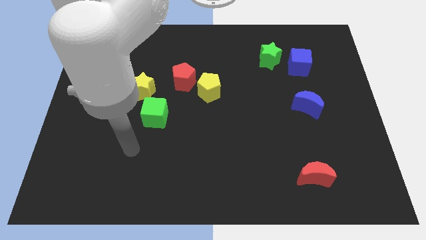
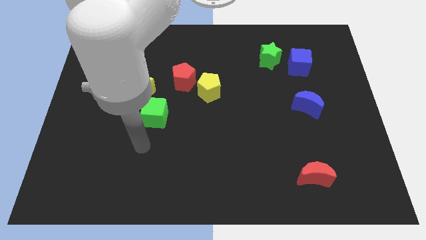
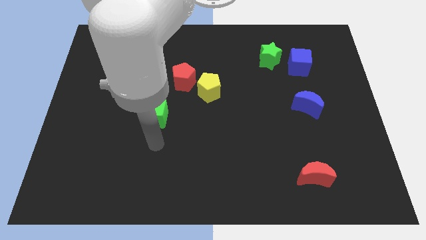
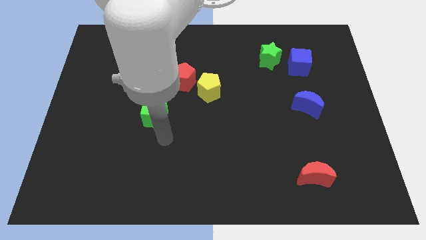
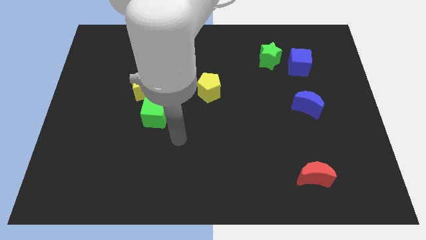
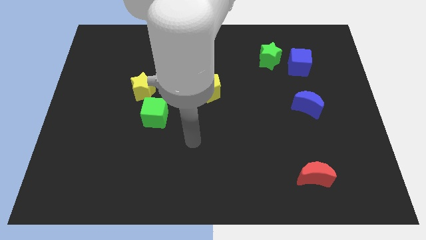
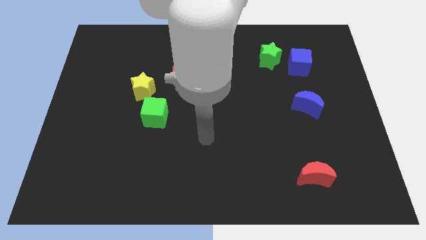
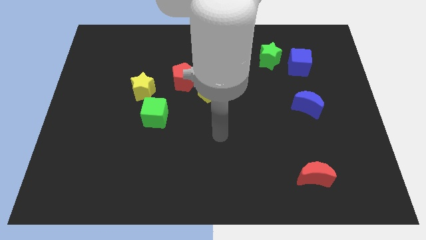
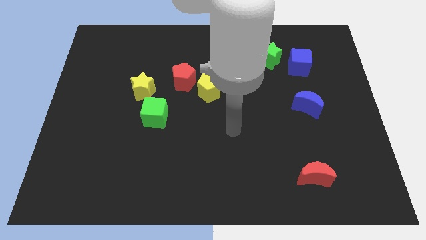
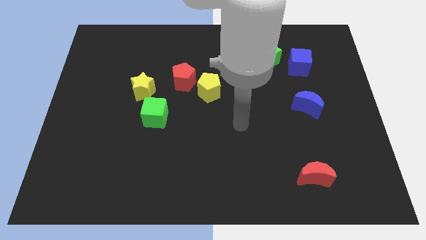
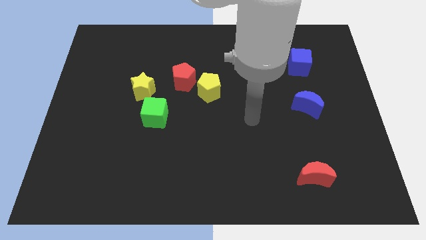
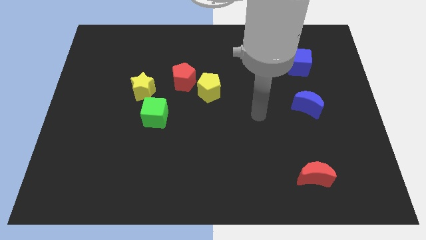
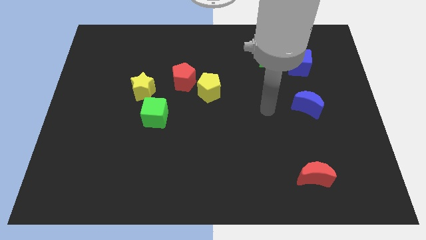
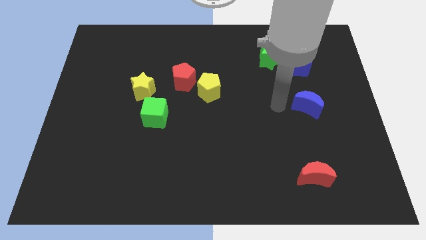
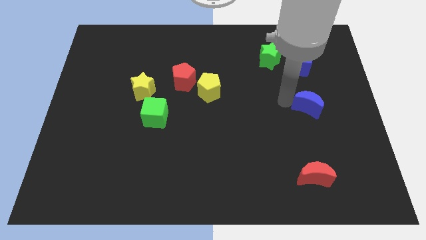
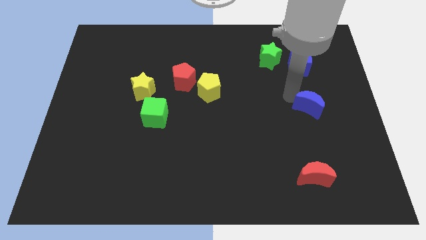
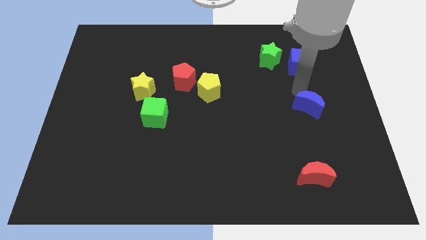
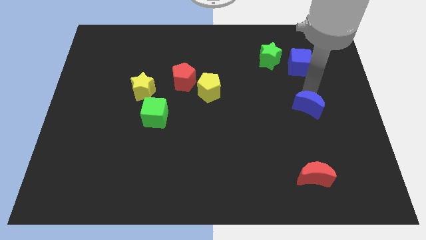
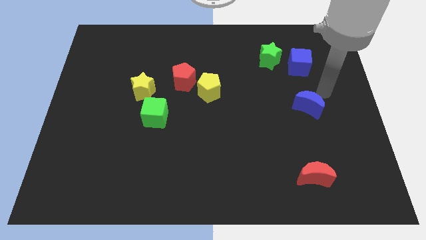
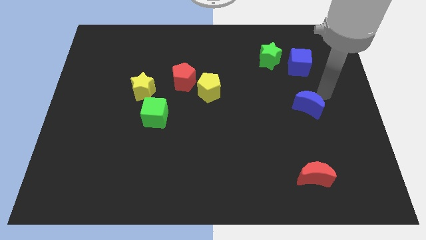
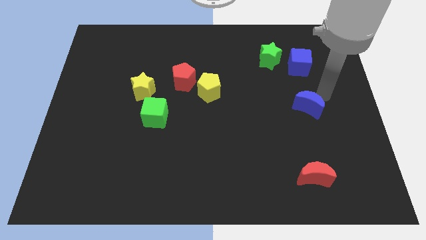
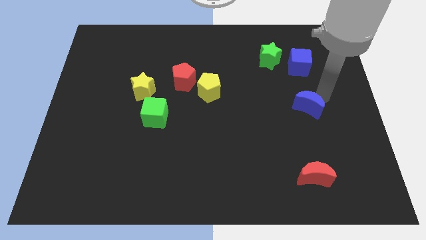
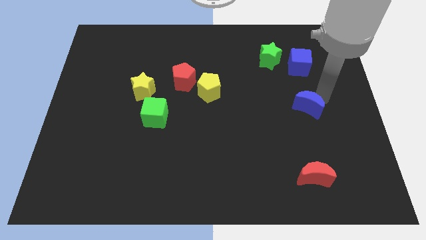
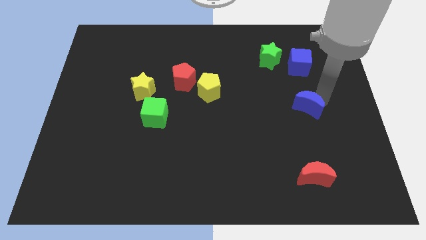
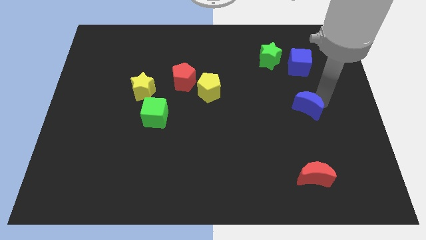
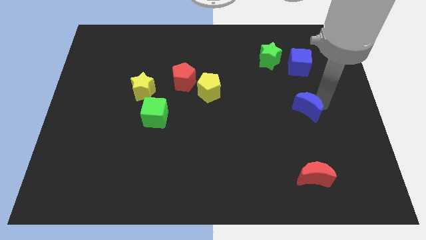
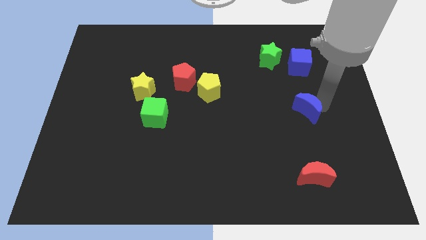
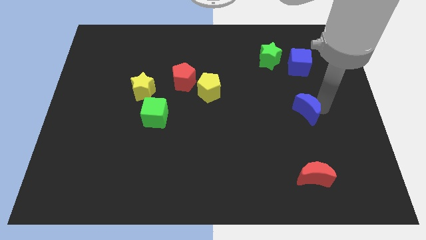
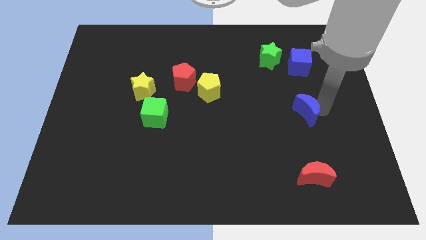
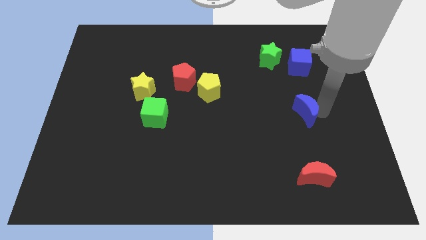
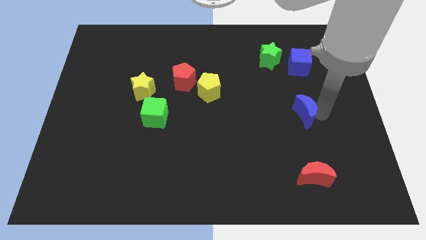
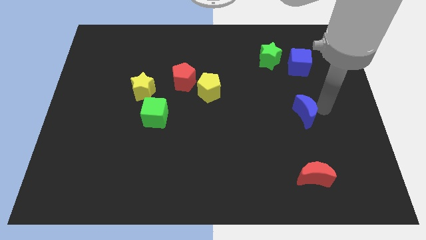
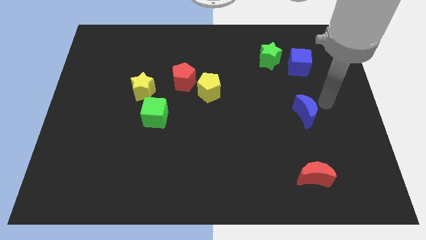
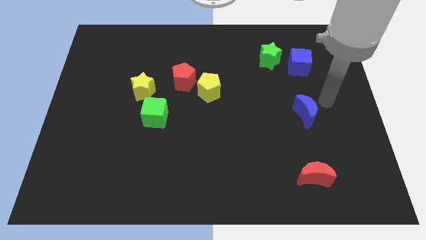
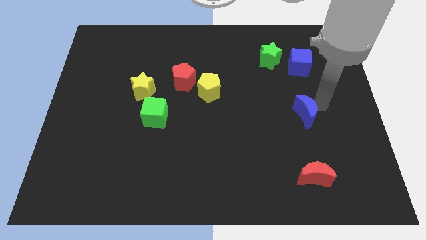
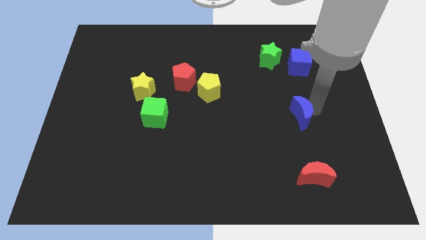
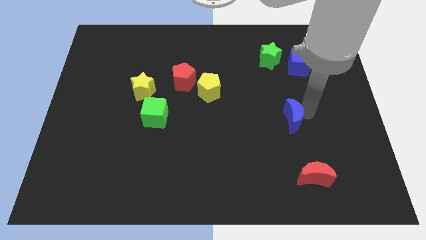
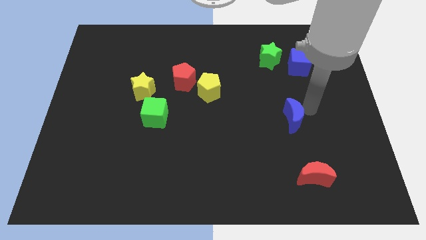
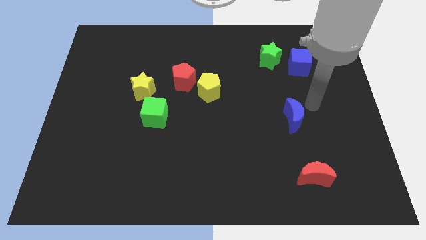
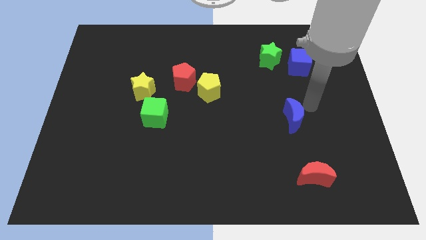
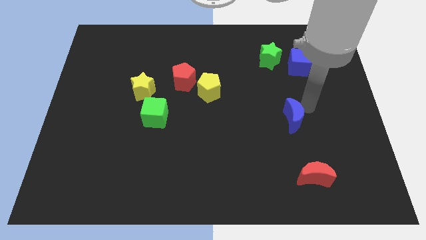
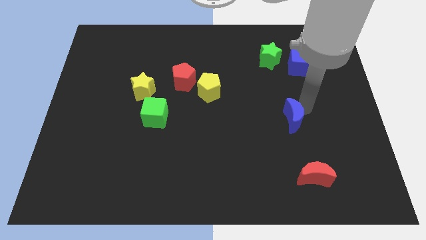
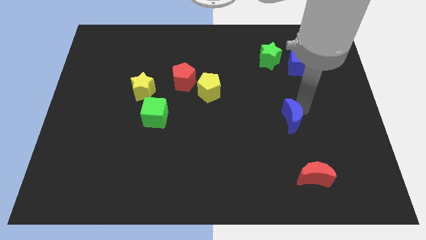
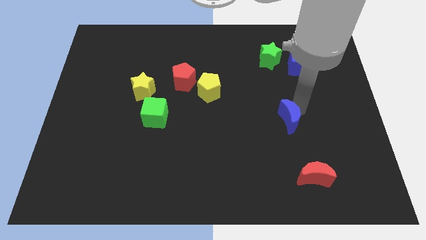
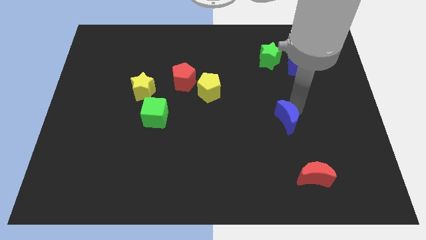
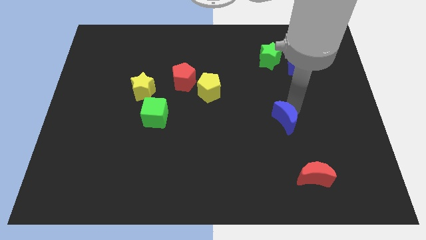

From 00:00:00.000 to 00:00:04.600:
slightly push the blue moon downwards and to the left diagonally

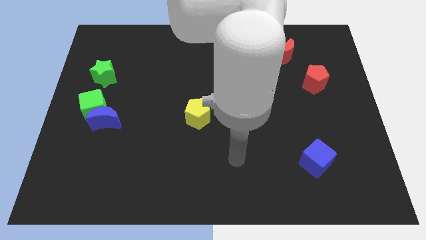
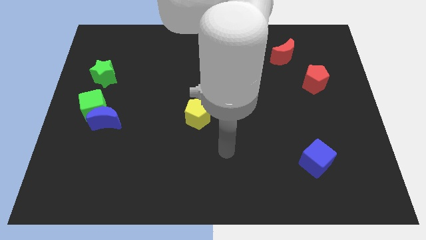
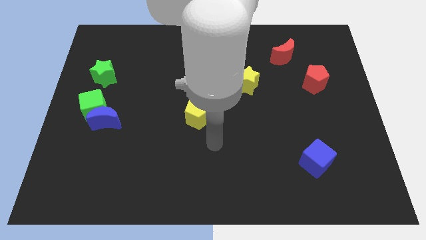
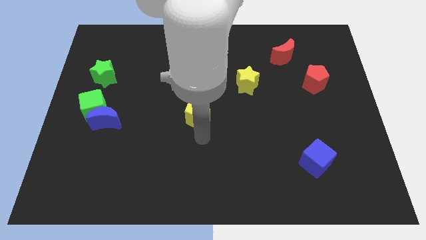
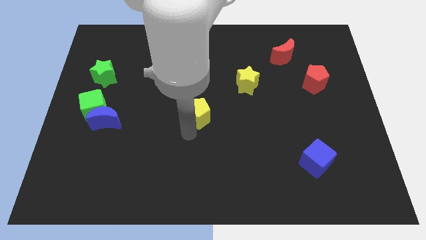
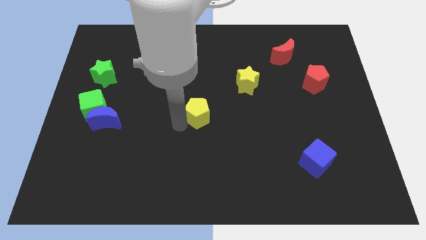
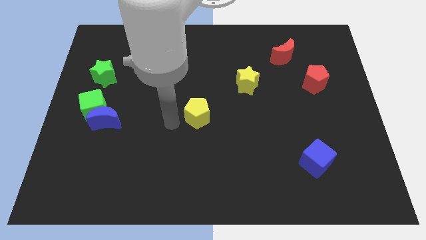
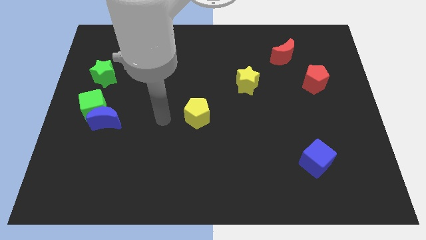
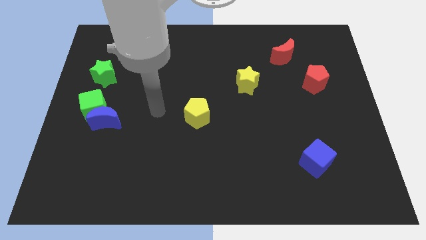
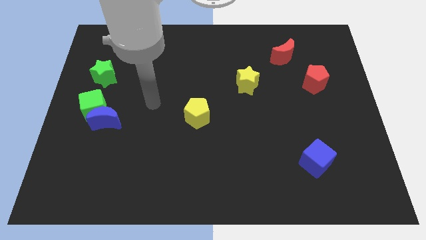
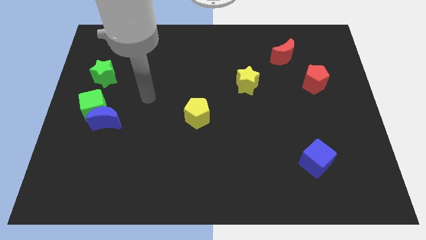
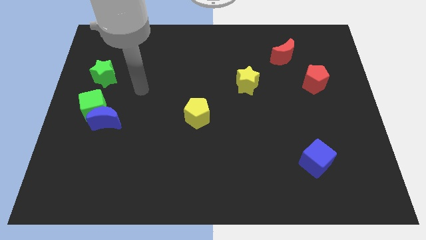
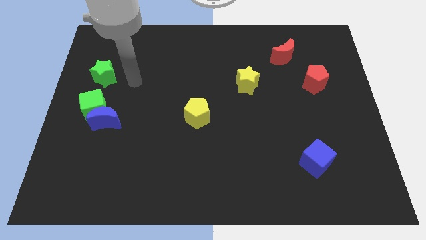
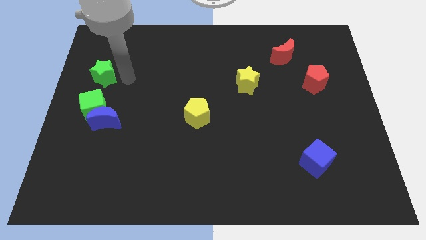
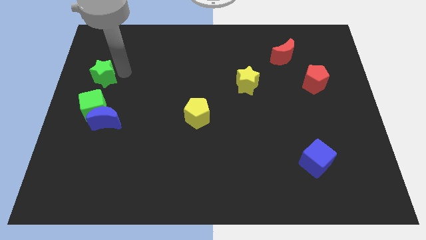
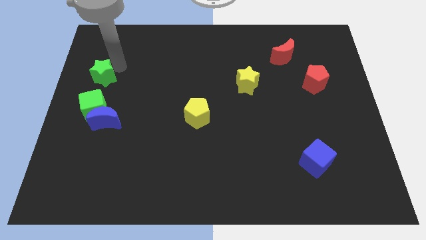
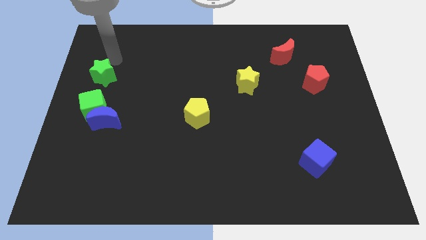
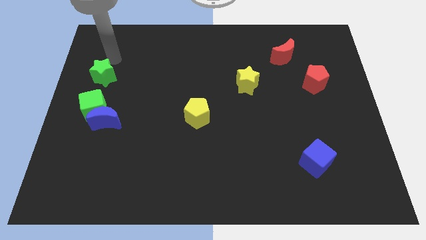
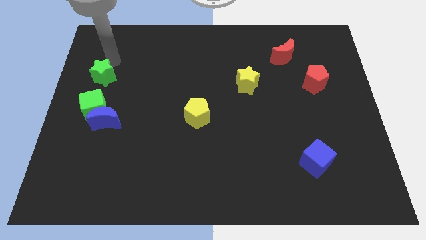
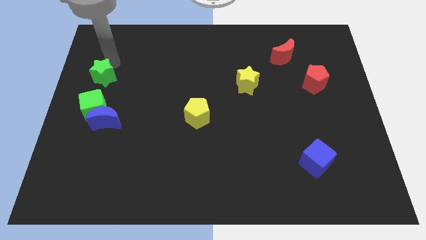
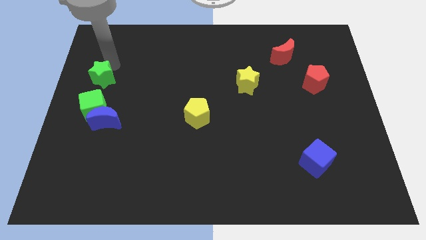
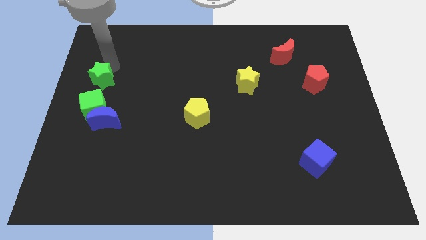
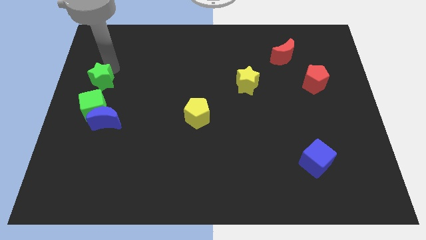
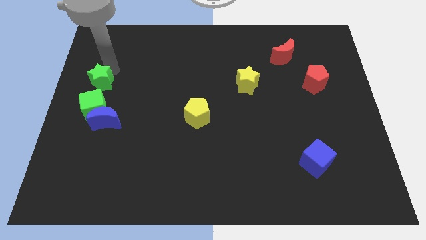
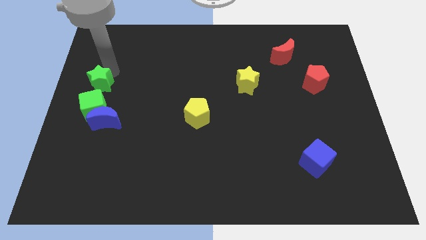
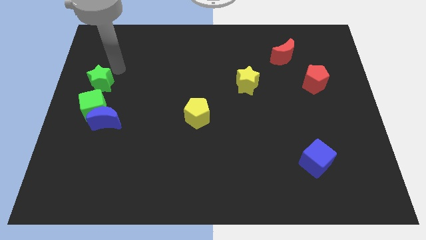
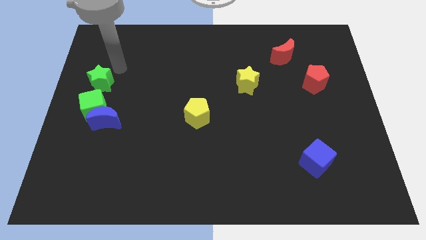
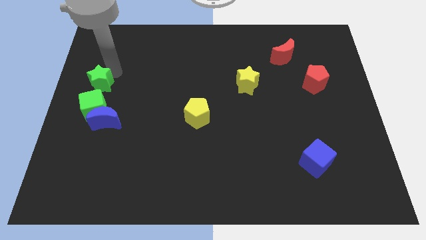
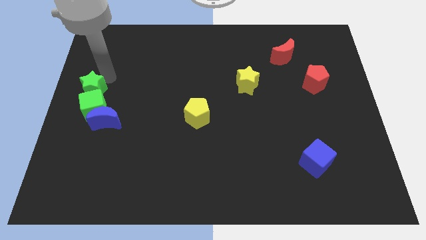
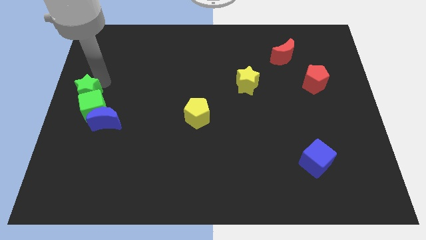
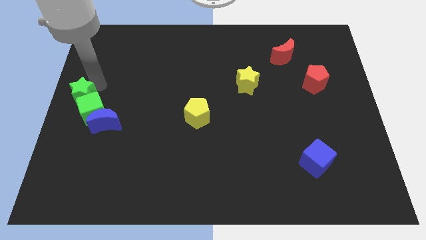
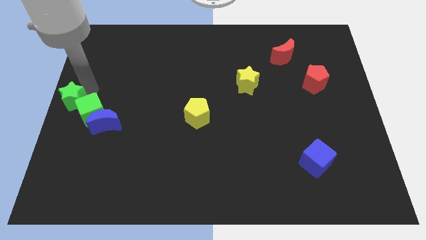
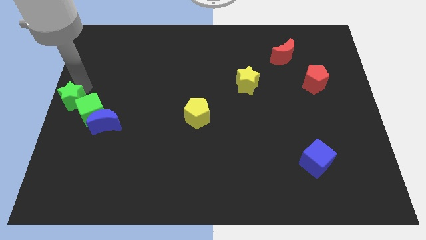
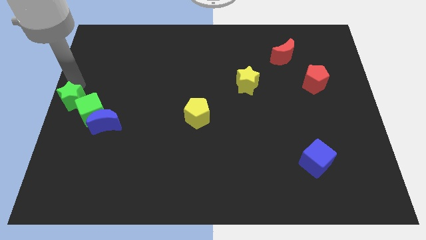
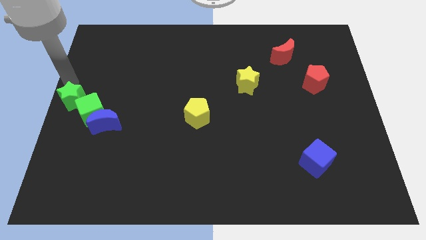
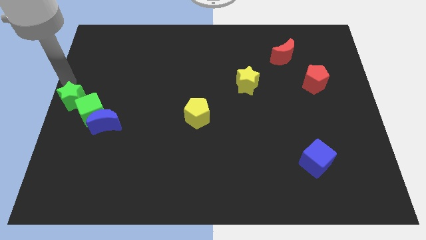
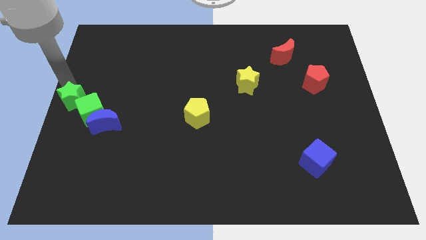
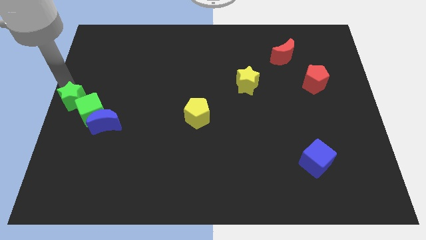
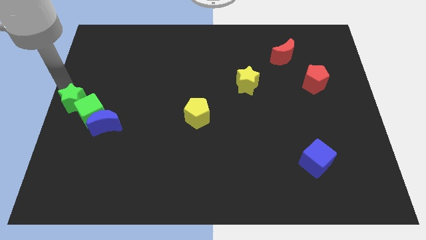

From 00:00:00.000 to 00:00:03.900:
push the green star downwards somewhat
